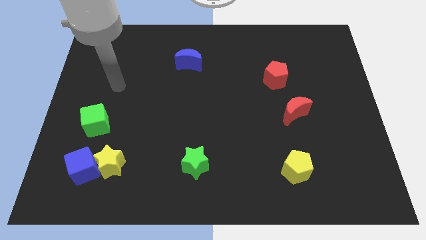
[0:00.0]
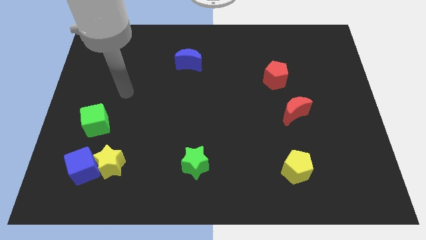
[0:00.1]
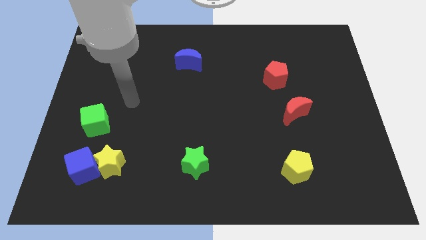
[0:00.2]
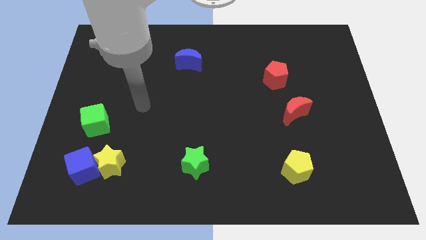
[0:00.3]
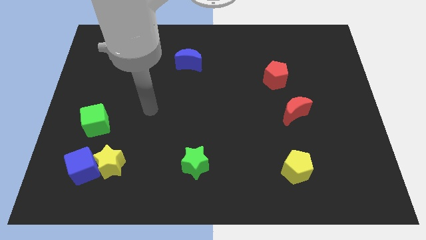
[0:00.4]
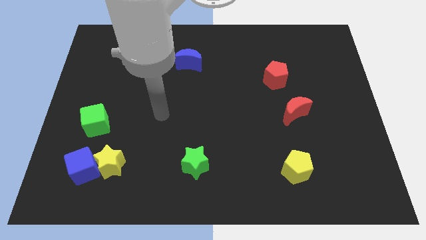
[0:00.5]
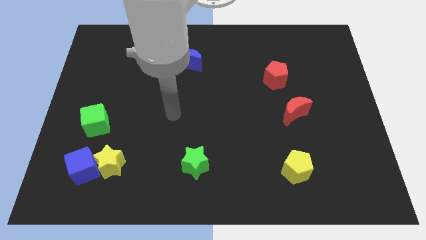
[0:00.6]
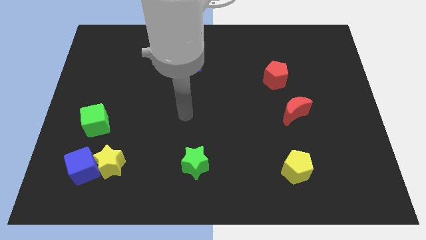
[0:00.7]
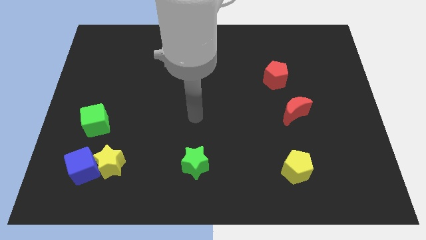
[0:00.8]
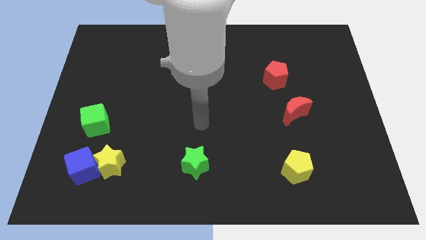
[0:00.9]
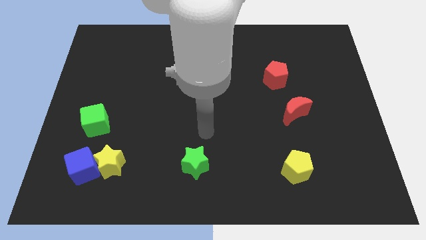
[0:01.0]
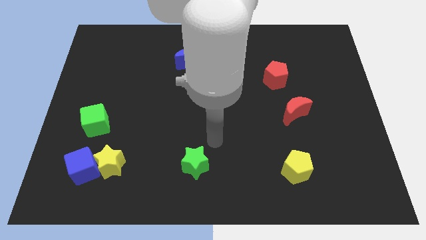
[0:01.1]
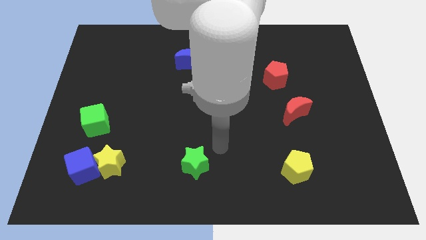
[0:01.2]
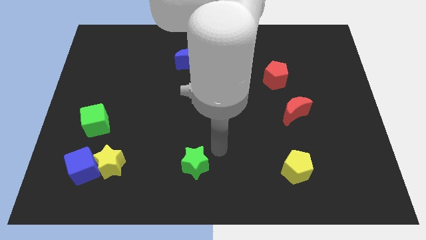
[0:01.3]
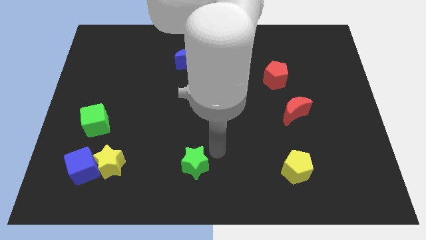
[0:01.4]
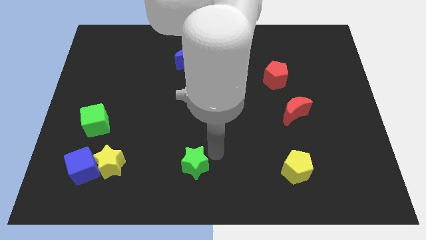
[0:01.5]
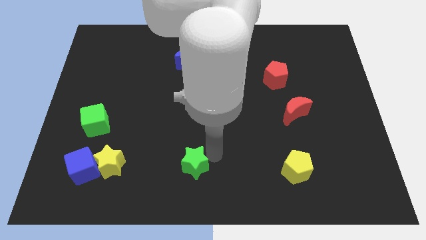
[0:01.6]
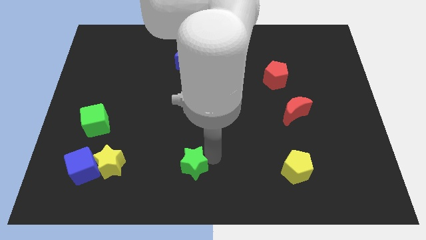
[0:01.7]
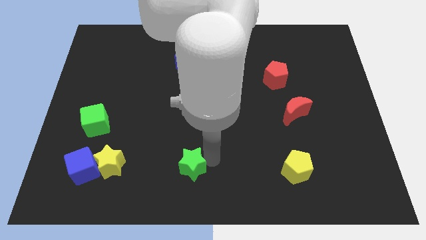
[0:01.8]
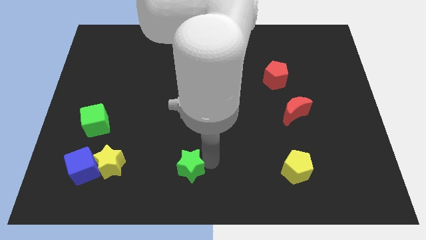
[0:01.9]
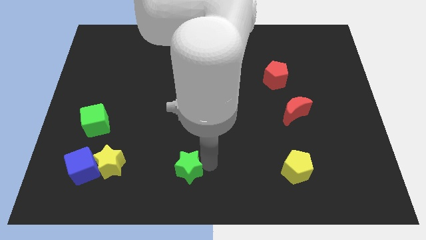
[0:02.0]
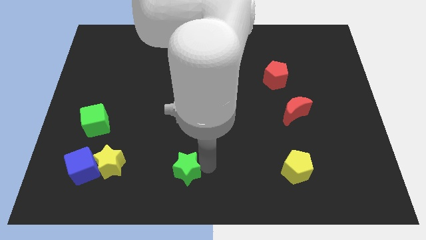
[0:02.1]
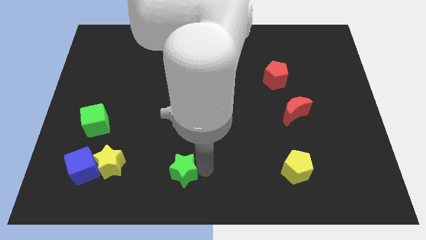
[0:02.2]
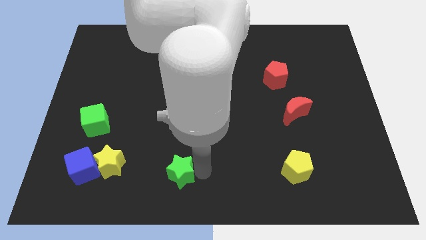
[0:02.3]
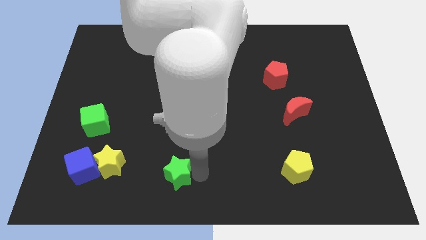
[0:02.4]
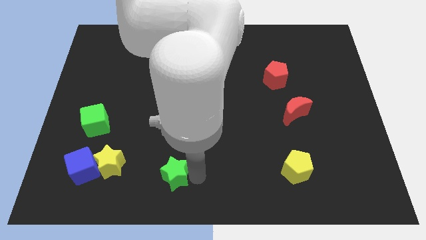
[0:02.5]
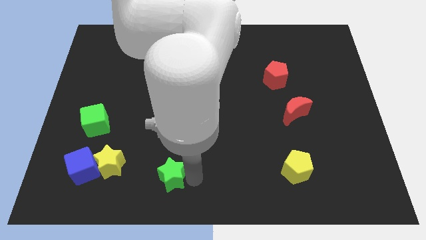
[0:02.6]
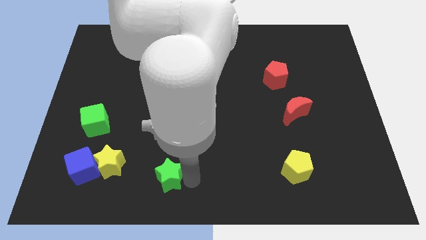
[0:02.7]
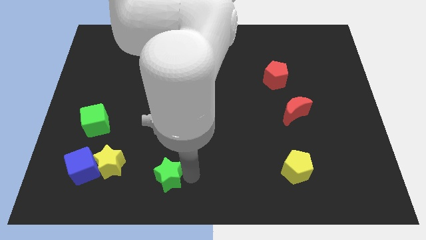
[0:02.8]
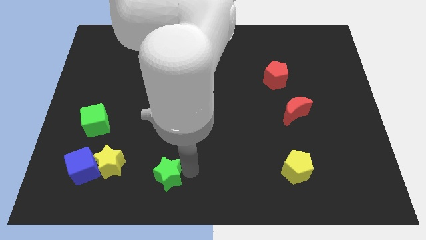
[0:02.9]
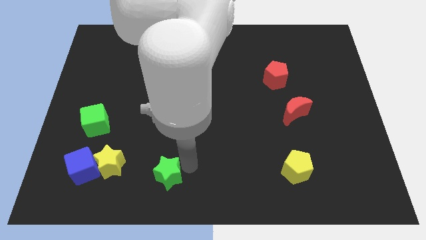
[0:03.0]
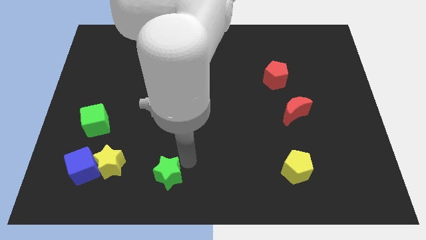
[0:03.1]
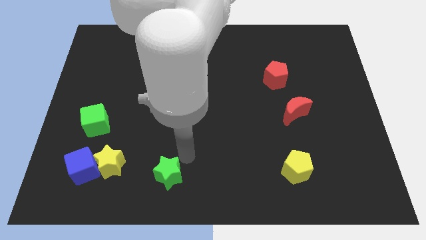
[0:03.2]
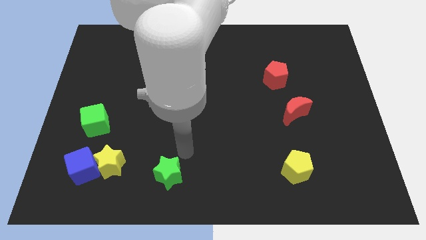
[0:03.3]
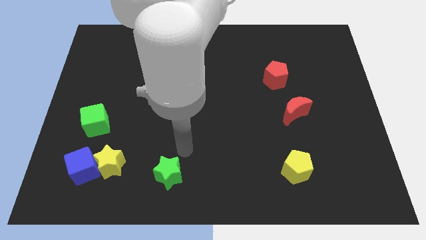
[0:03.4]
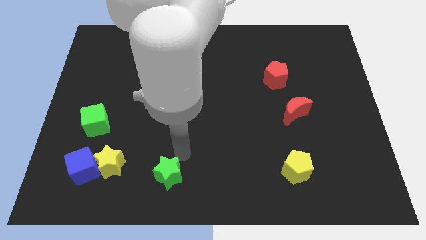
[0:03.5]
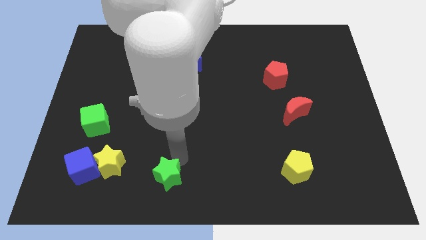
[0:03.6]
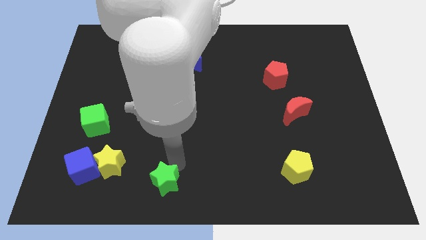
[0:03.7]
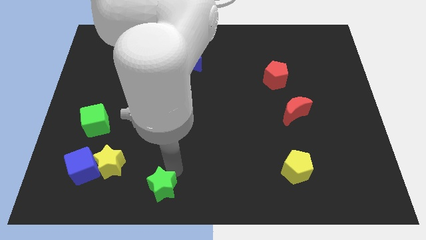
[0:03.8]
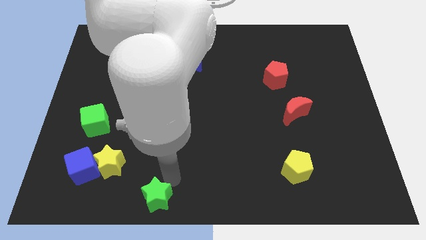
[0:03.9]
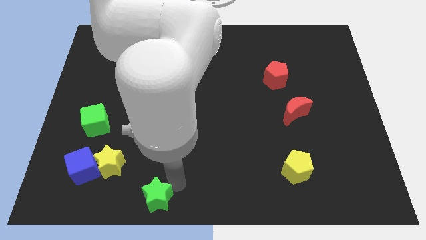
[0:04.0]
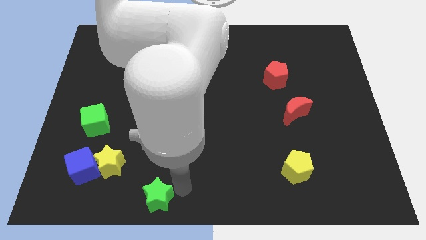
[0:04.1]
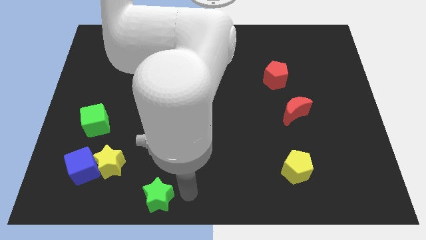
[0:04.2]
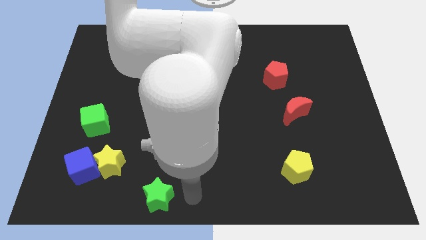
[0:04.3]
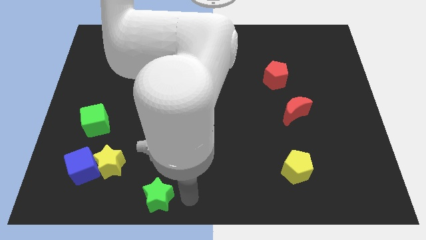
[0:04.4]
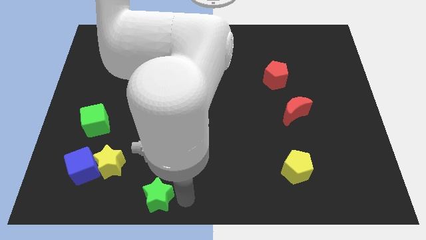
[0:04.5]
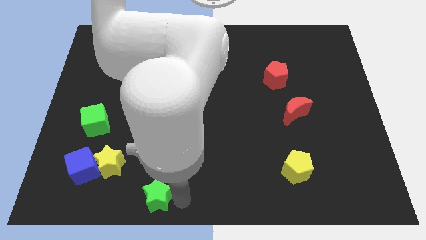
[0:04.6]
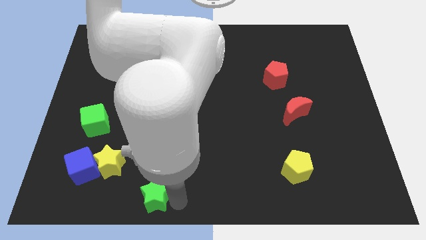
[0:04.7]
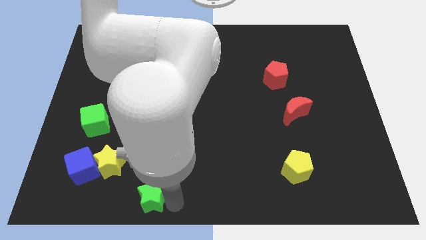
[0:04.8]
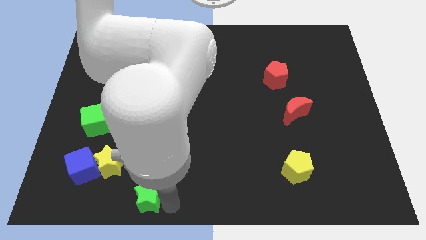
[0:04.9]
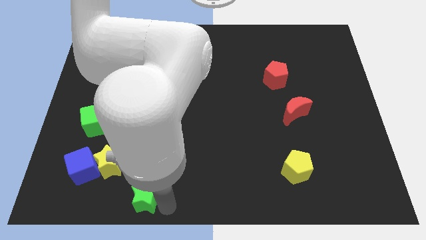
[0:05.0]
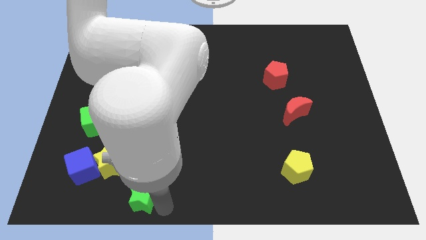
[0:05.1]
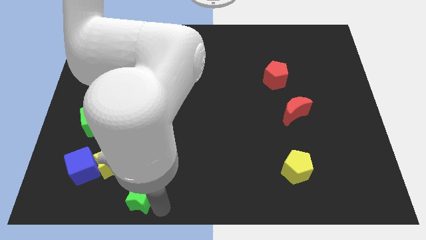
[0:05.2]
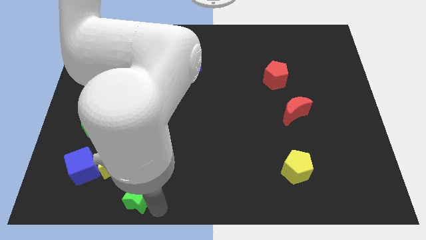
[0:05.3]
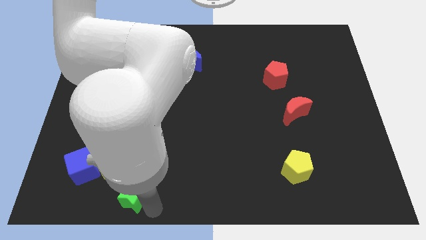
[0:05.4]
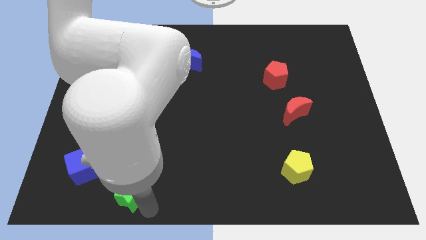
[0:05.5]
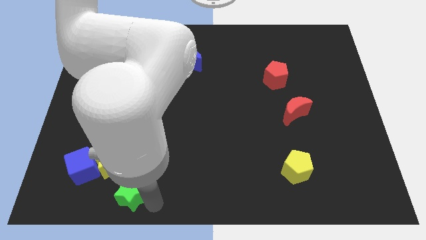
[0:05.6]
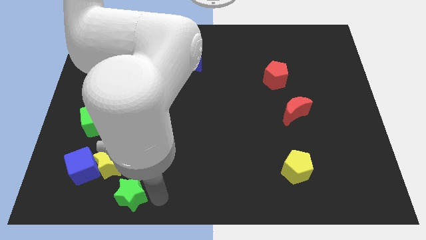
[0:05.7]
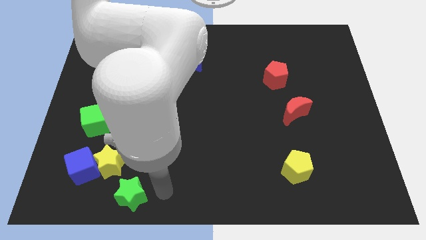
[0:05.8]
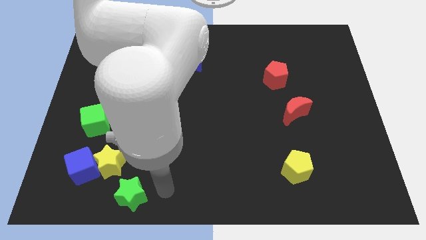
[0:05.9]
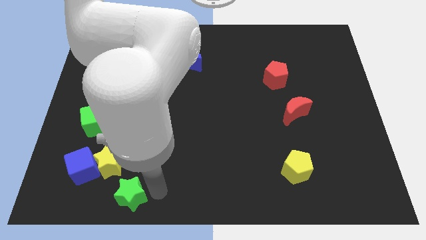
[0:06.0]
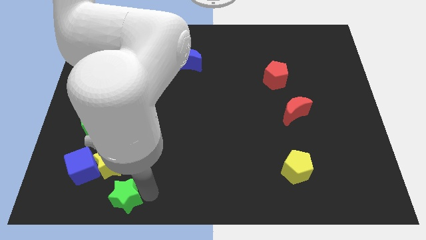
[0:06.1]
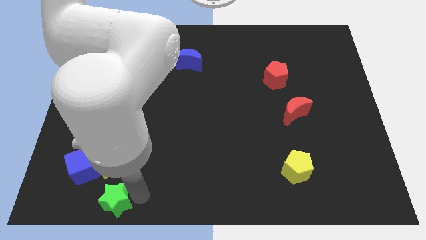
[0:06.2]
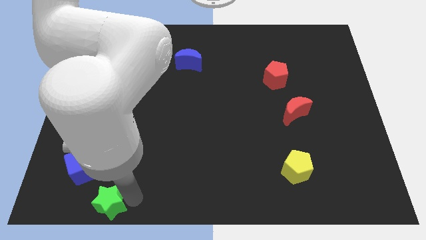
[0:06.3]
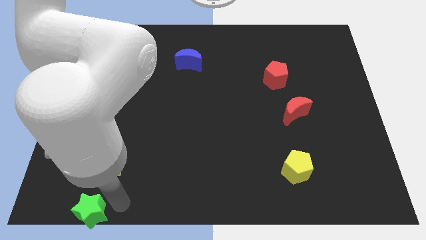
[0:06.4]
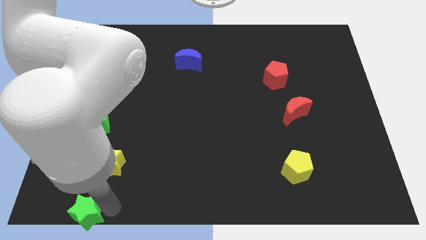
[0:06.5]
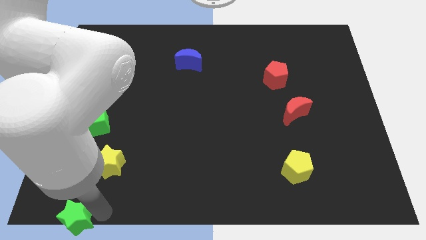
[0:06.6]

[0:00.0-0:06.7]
put the green star to the bottom left
